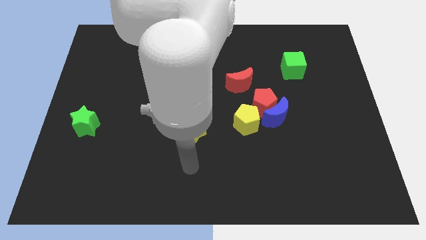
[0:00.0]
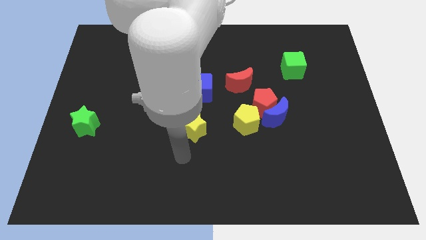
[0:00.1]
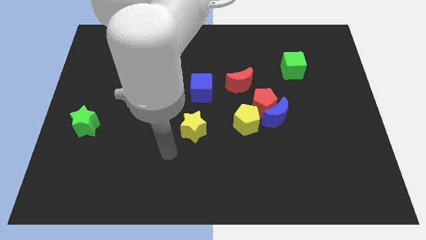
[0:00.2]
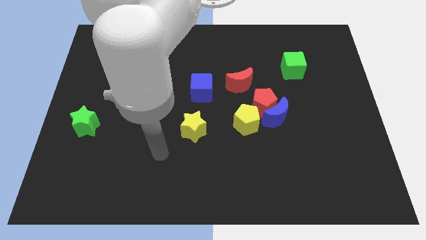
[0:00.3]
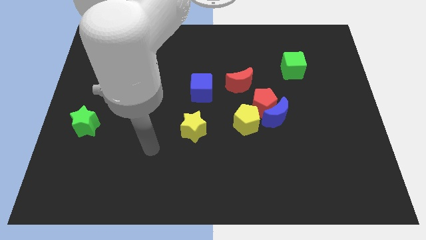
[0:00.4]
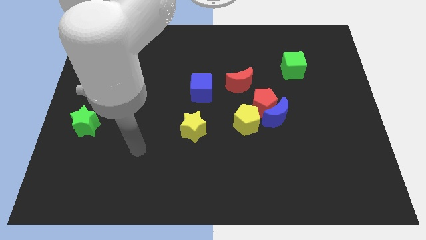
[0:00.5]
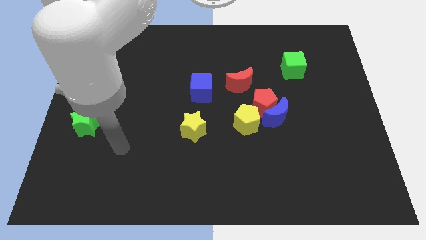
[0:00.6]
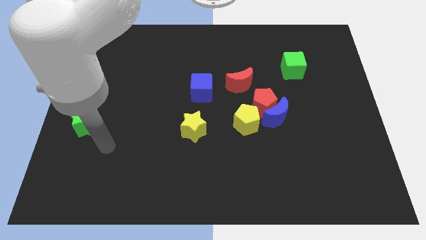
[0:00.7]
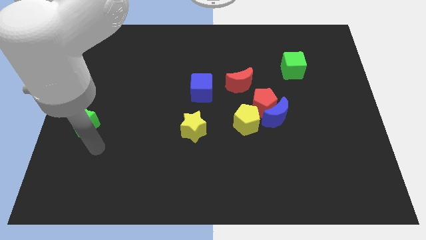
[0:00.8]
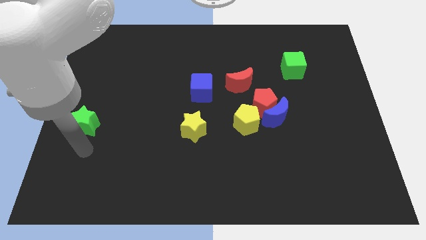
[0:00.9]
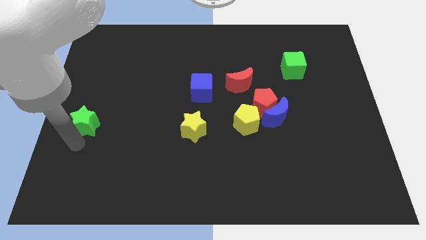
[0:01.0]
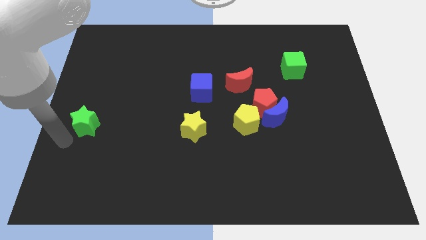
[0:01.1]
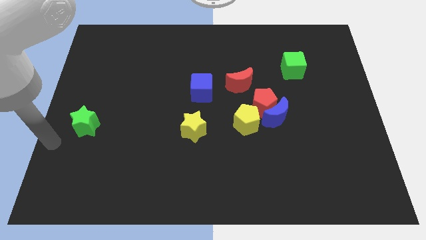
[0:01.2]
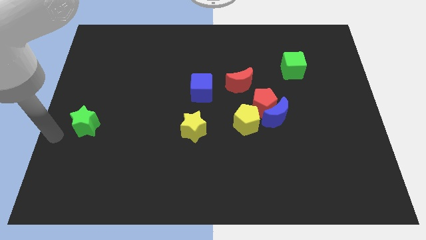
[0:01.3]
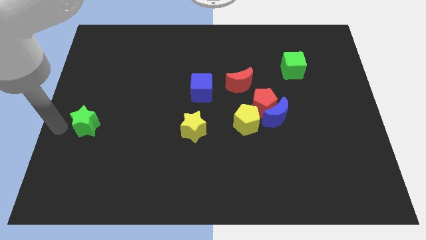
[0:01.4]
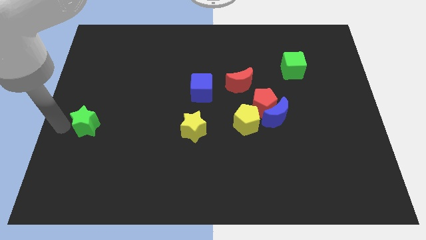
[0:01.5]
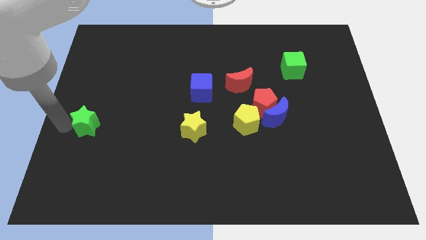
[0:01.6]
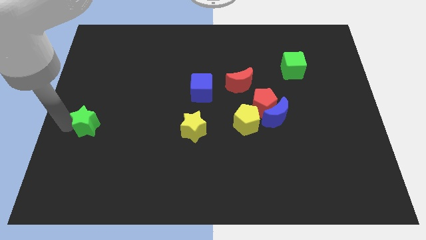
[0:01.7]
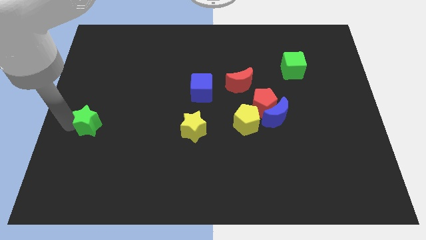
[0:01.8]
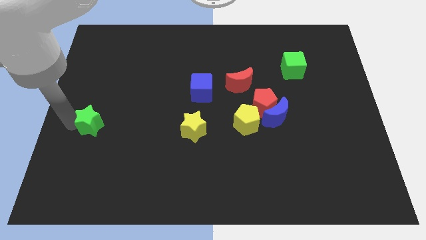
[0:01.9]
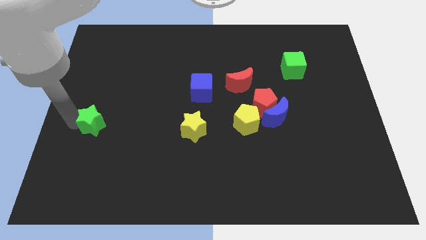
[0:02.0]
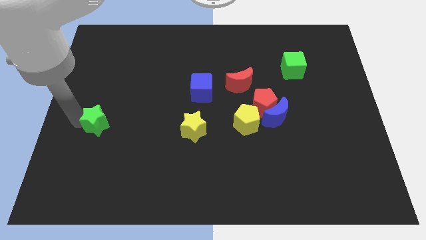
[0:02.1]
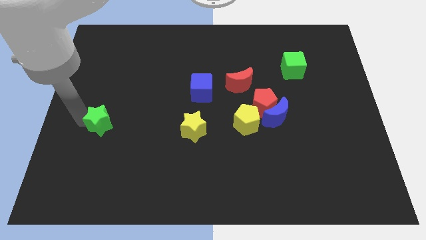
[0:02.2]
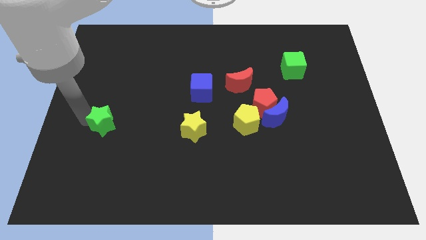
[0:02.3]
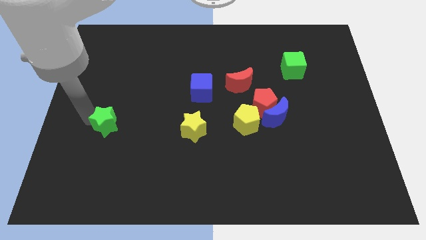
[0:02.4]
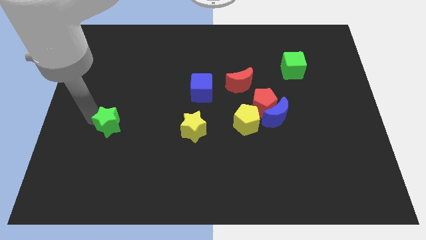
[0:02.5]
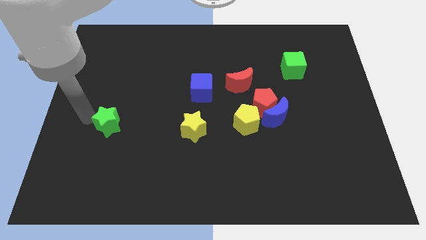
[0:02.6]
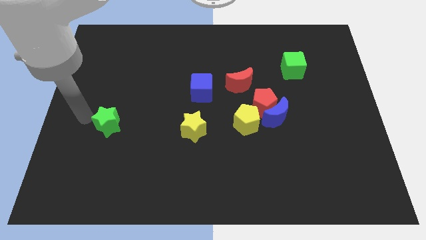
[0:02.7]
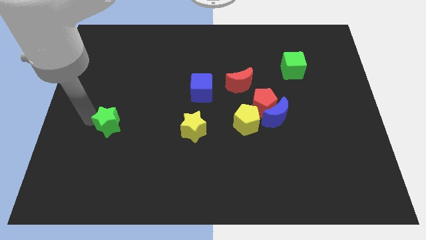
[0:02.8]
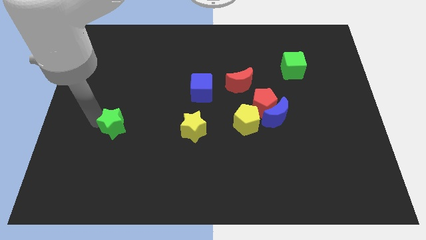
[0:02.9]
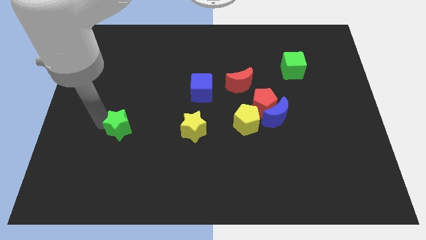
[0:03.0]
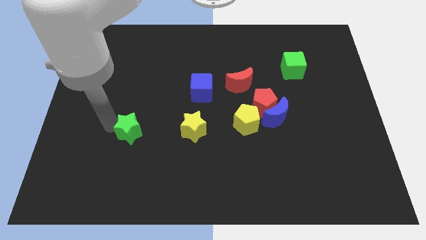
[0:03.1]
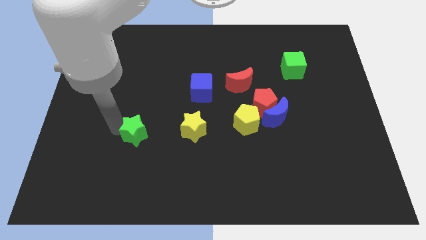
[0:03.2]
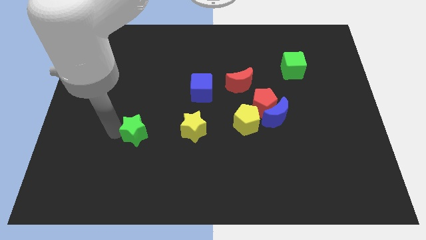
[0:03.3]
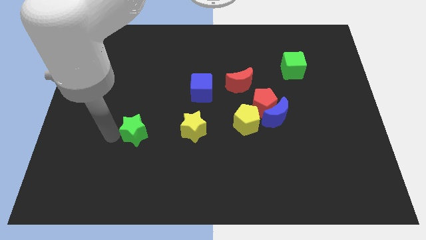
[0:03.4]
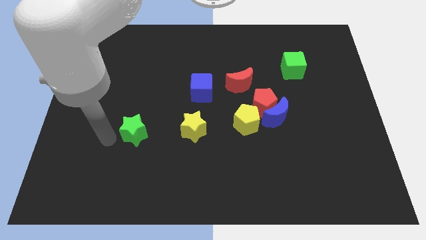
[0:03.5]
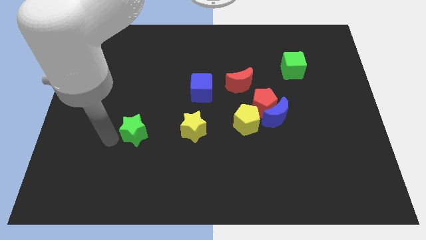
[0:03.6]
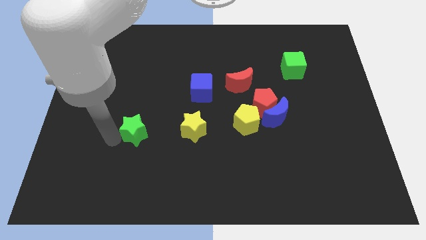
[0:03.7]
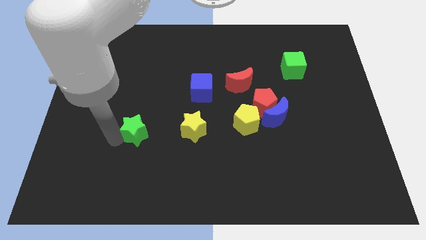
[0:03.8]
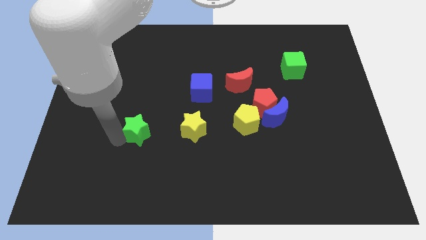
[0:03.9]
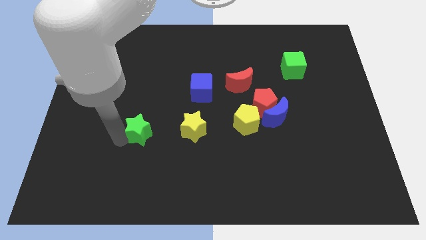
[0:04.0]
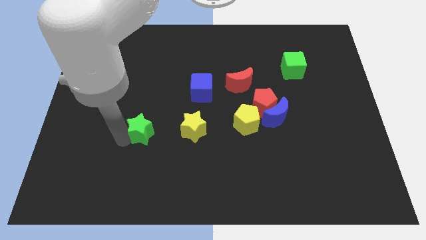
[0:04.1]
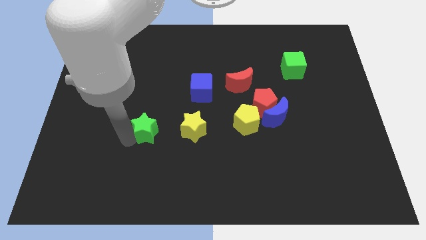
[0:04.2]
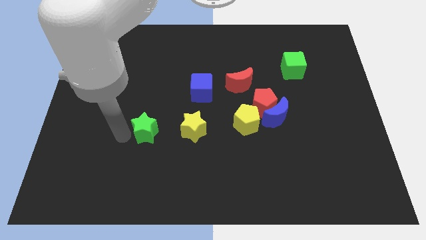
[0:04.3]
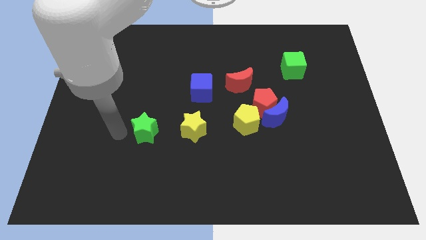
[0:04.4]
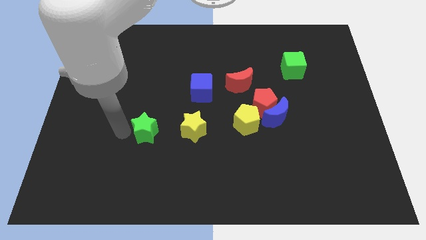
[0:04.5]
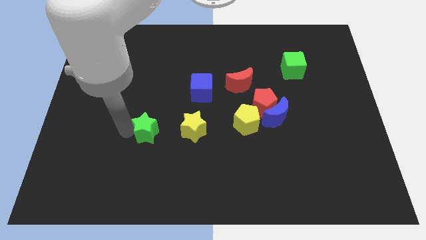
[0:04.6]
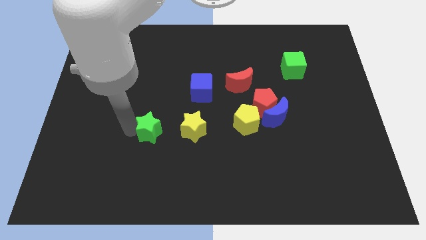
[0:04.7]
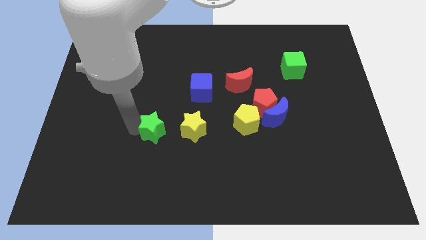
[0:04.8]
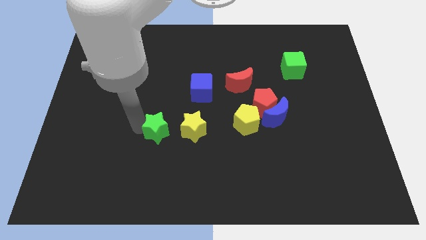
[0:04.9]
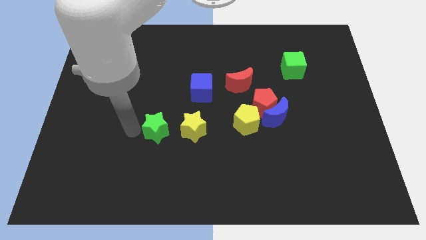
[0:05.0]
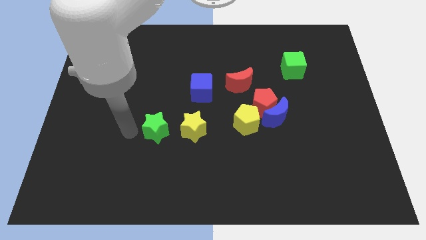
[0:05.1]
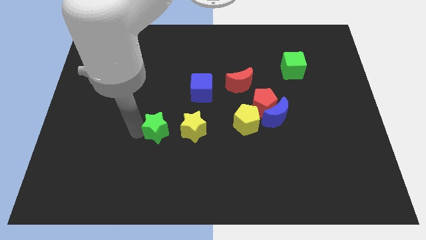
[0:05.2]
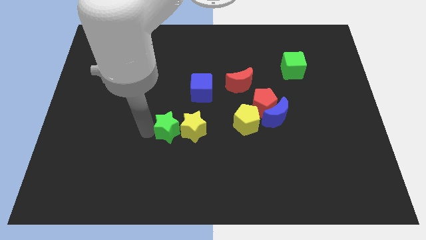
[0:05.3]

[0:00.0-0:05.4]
move the green star close to the yellow star

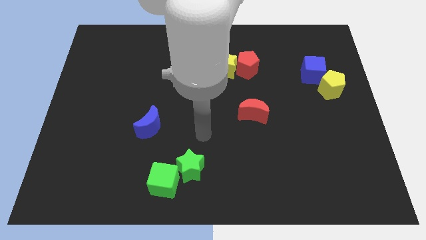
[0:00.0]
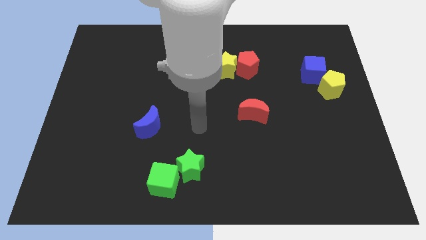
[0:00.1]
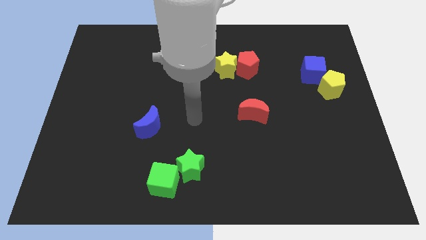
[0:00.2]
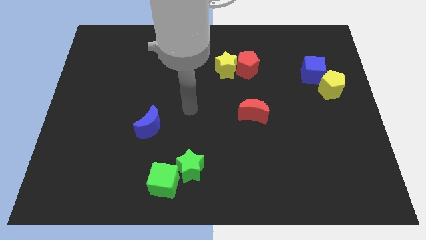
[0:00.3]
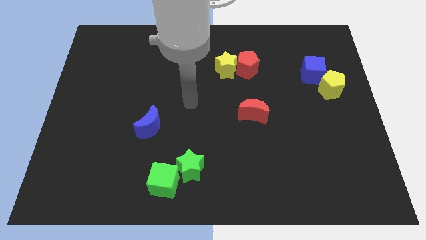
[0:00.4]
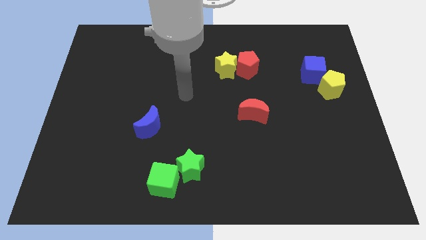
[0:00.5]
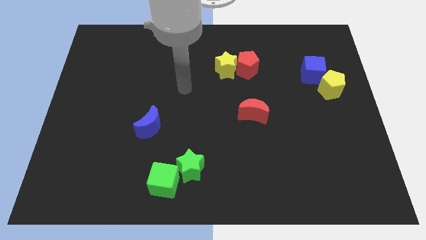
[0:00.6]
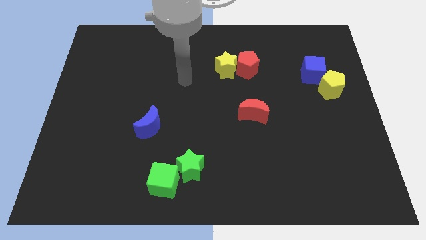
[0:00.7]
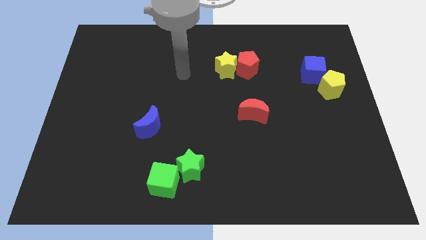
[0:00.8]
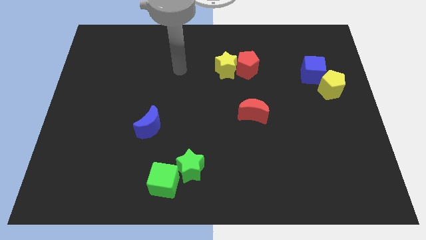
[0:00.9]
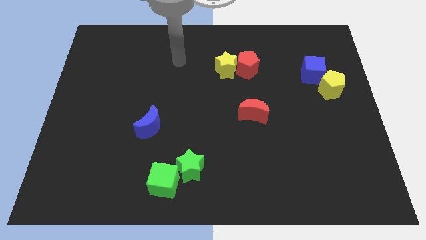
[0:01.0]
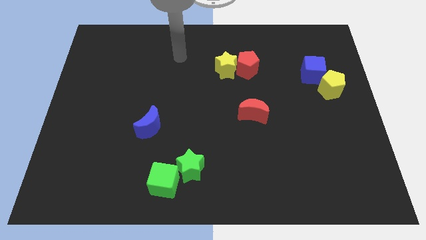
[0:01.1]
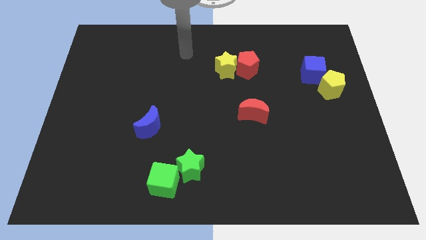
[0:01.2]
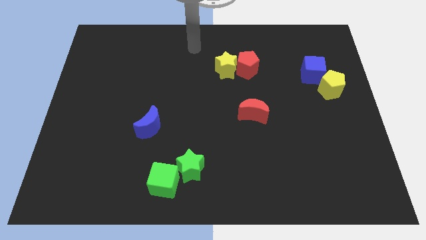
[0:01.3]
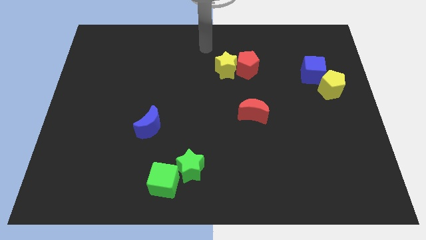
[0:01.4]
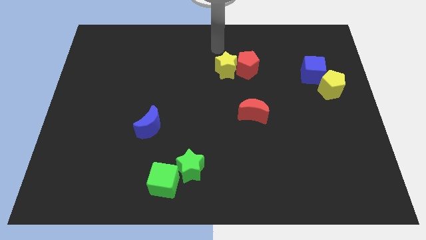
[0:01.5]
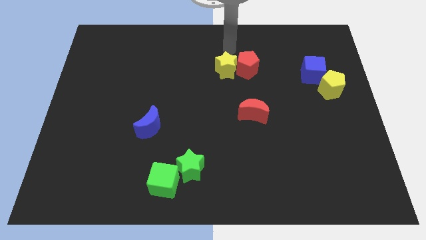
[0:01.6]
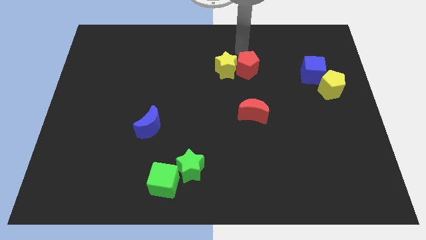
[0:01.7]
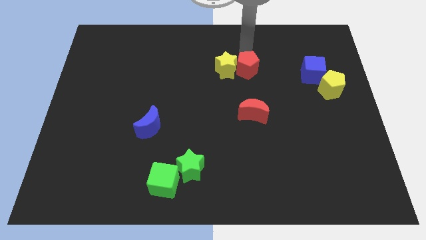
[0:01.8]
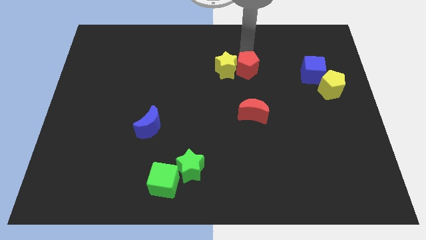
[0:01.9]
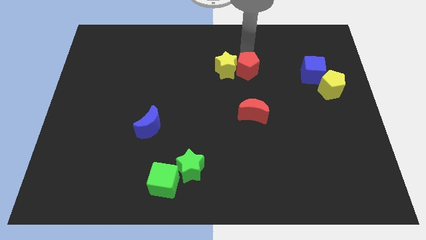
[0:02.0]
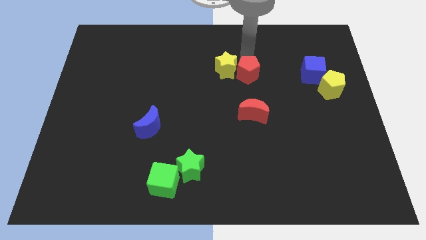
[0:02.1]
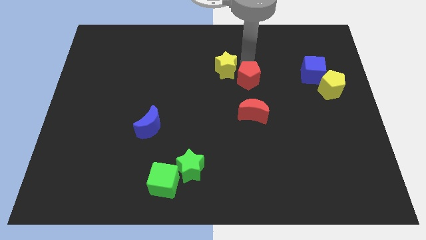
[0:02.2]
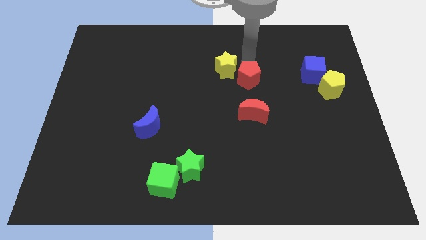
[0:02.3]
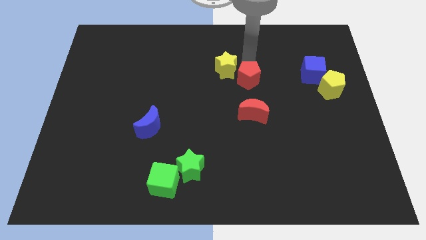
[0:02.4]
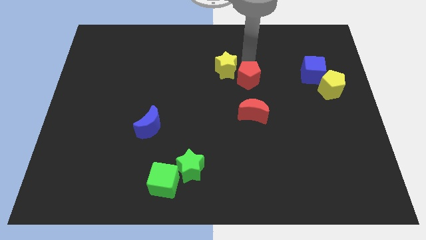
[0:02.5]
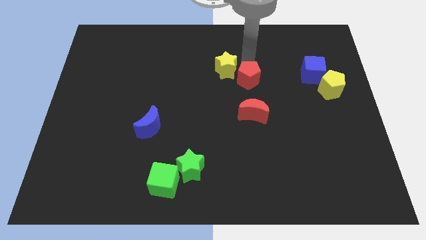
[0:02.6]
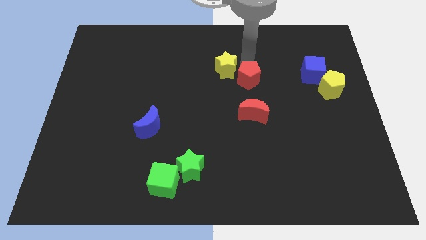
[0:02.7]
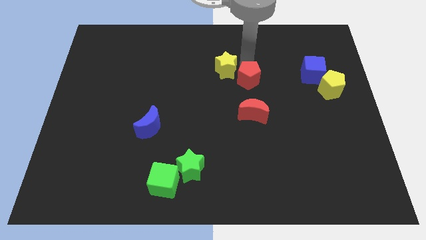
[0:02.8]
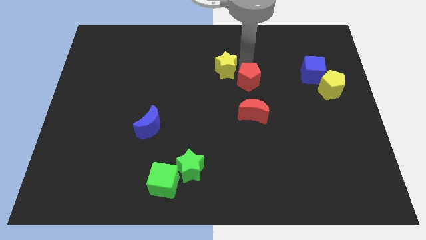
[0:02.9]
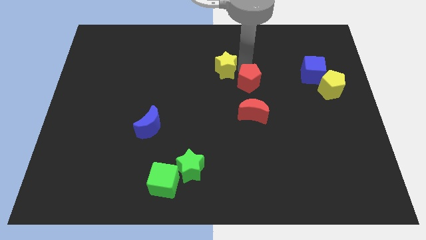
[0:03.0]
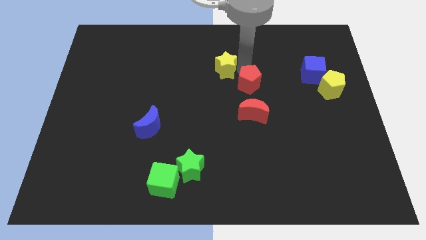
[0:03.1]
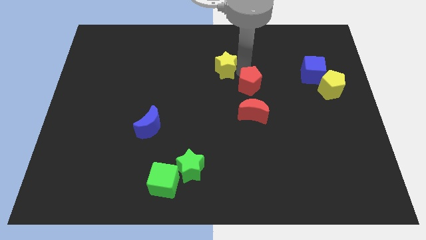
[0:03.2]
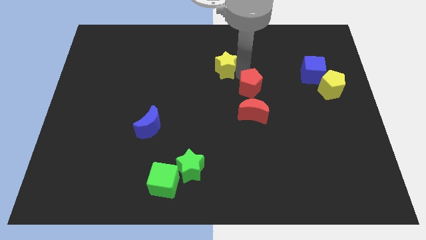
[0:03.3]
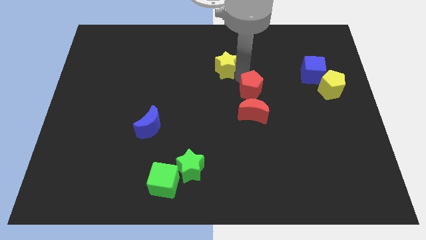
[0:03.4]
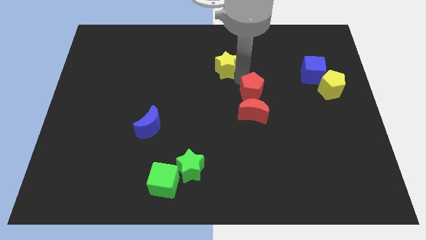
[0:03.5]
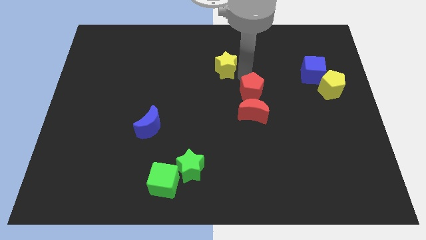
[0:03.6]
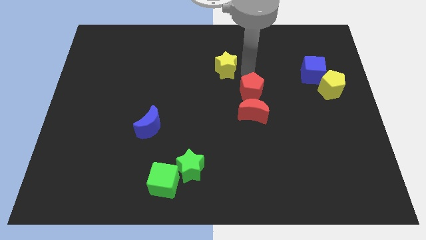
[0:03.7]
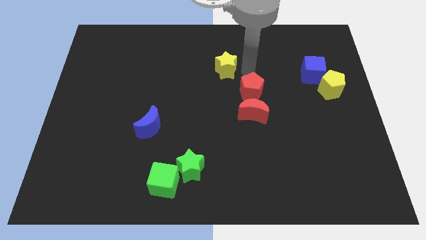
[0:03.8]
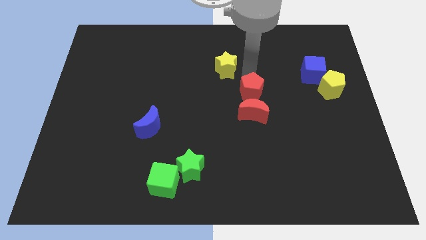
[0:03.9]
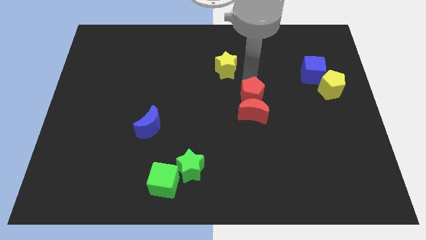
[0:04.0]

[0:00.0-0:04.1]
move the red pentagon towards the red moon
